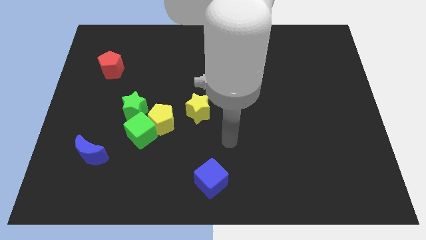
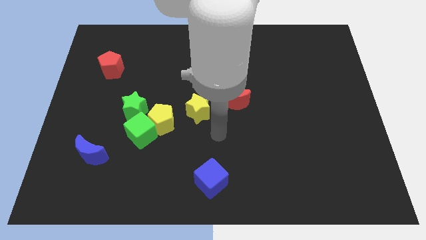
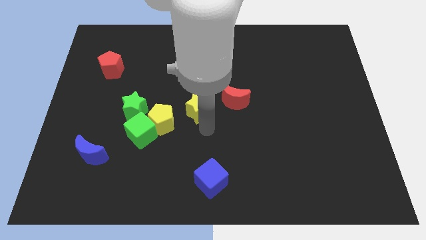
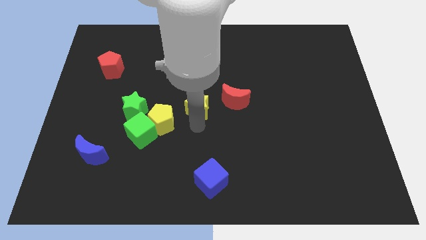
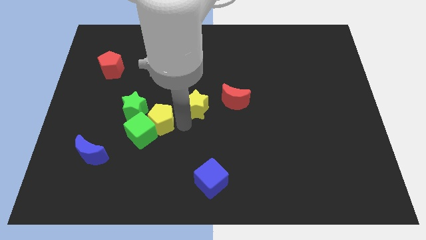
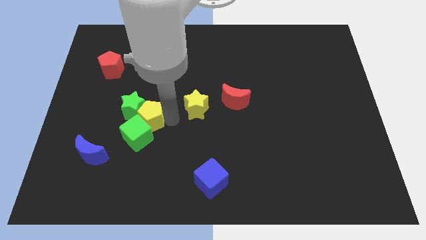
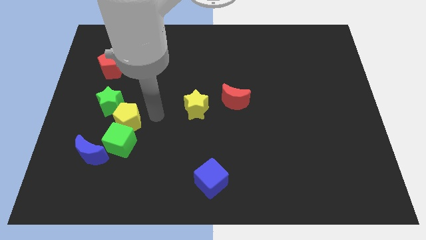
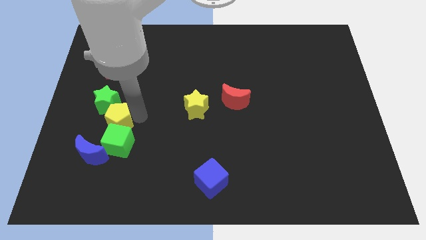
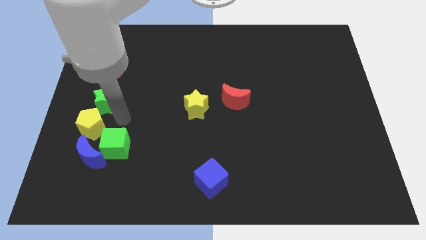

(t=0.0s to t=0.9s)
pull the green cube apart from the yellow pentagon and green star

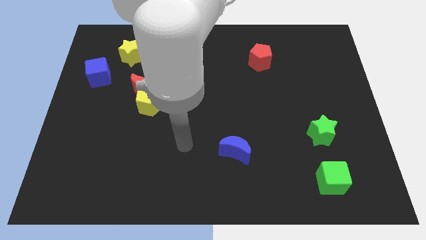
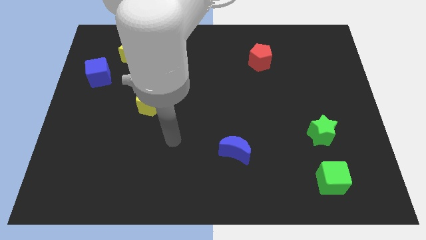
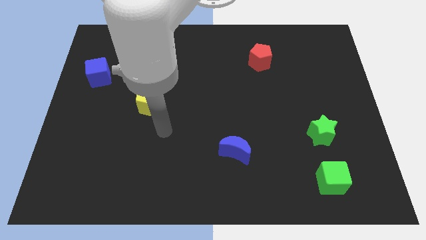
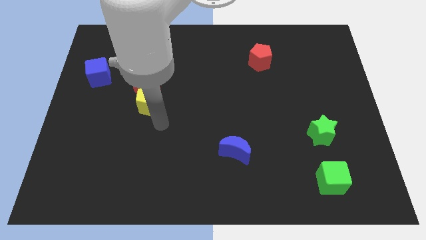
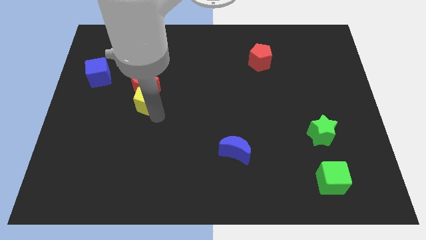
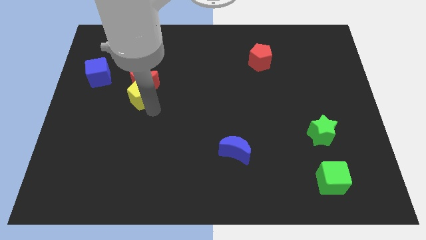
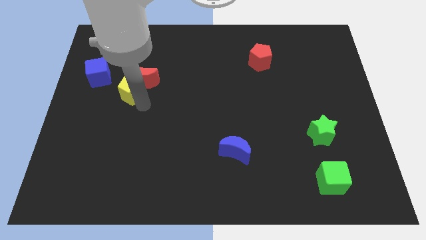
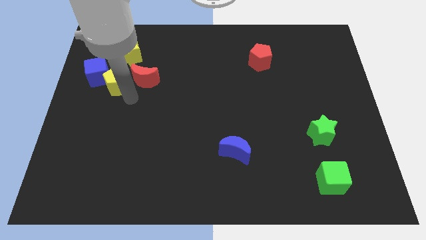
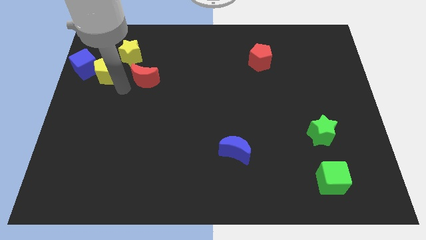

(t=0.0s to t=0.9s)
pull the red moon apart from the yellow pentagon

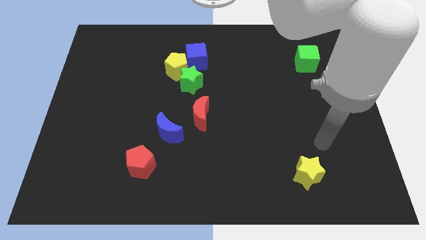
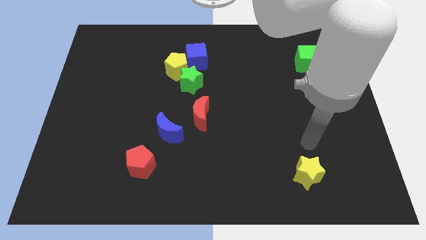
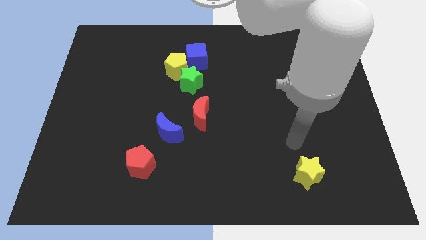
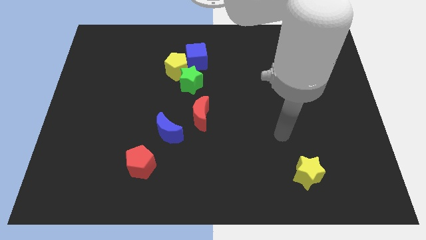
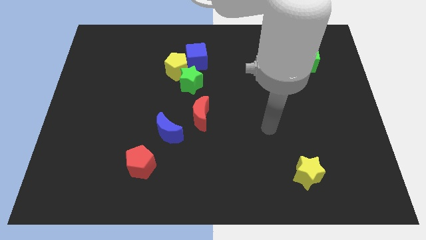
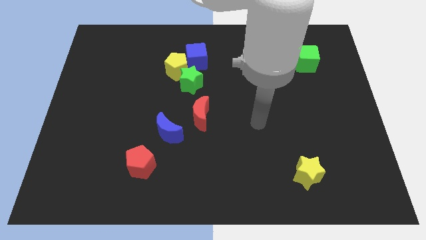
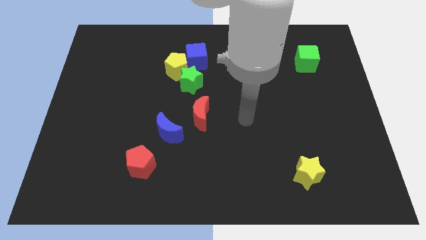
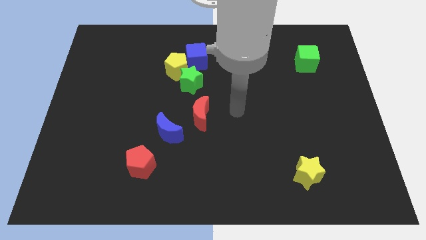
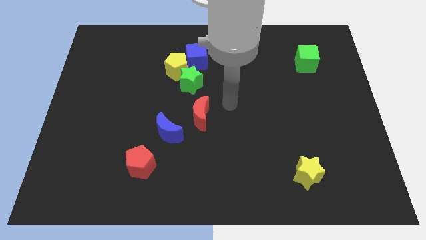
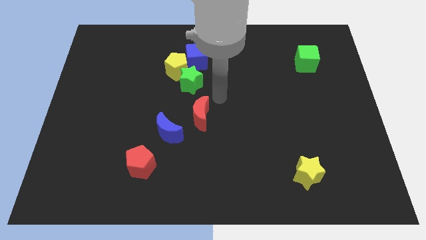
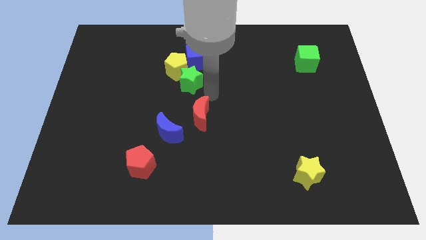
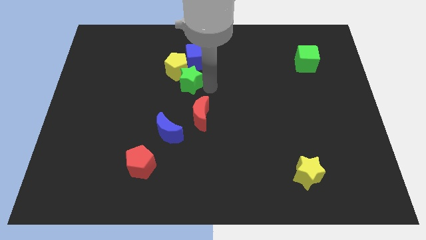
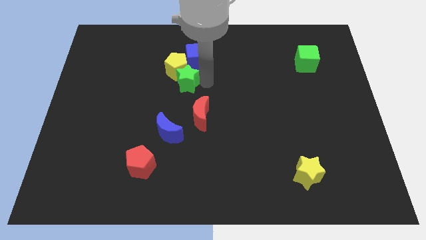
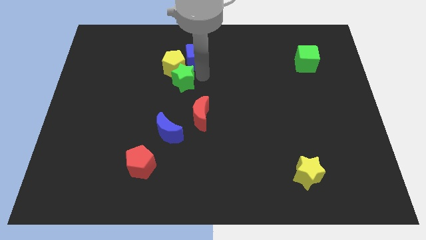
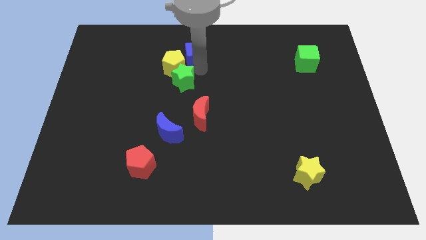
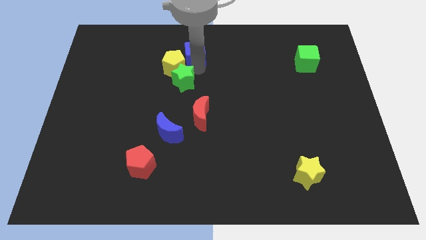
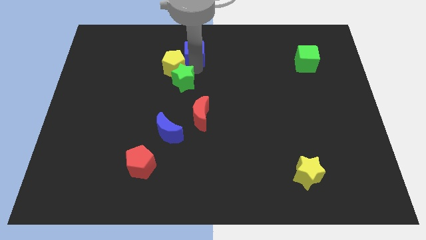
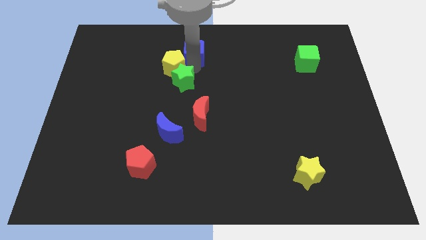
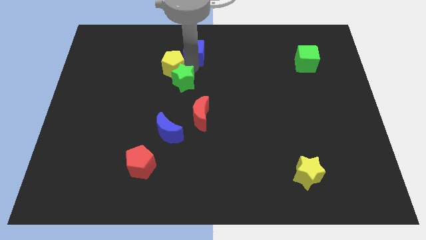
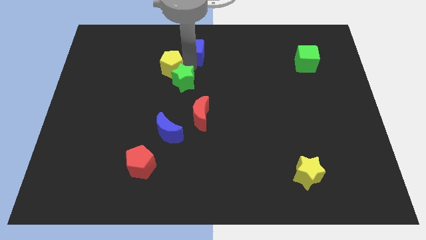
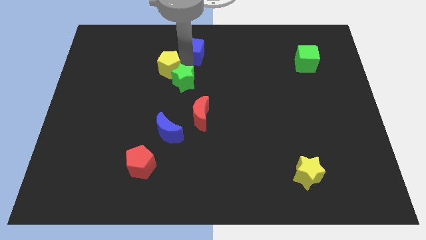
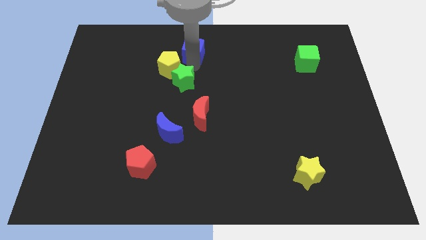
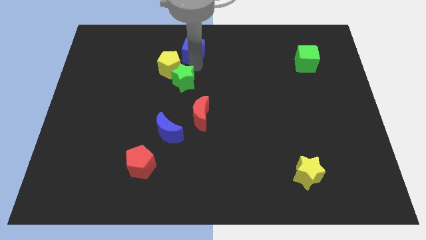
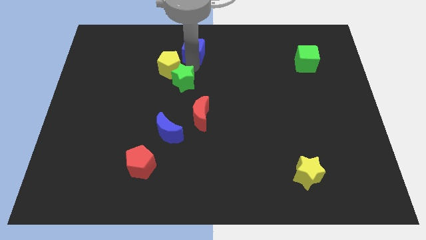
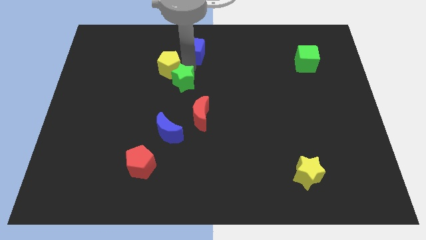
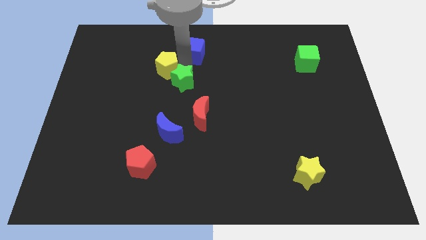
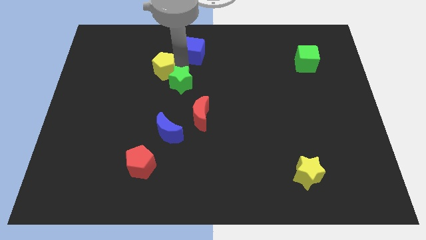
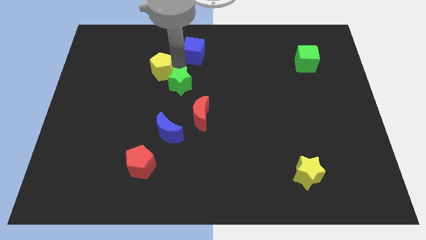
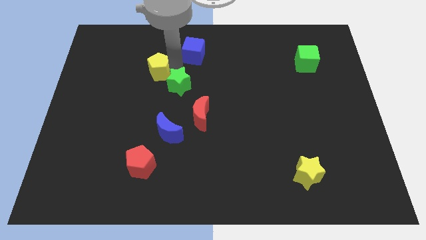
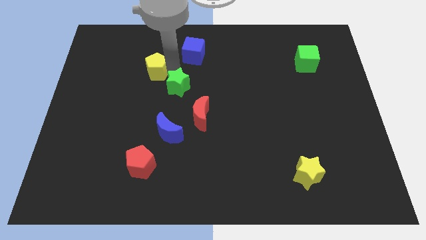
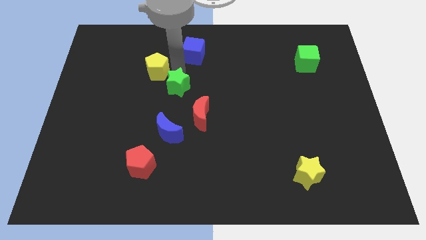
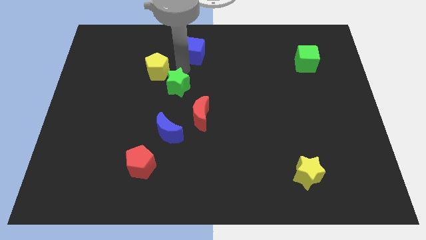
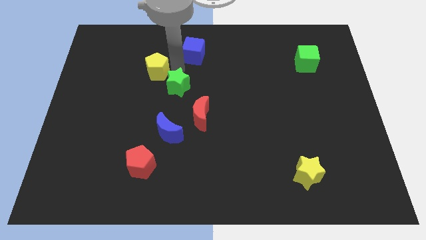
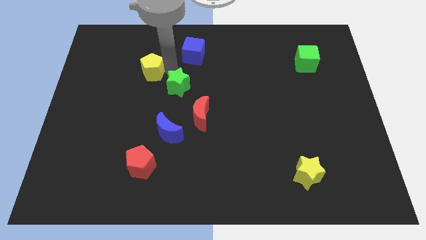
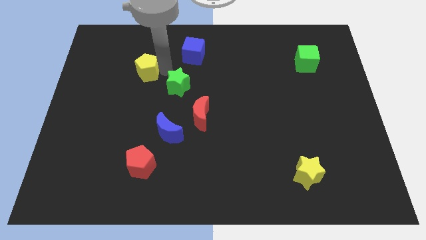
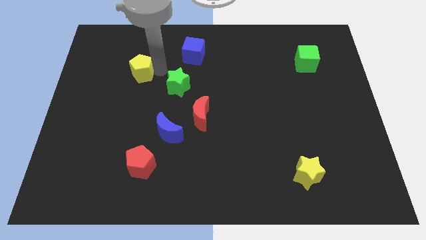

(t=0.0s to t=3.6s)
pull the yellow pentagon apart from the green star and blue cube

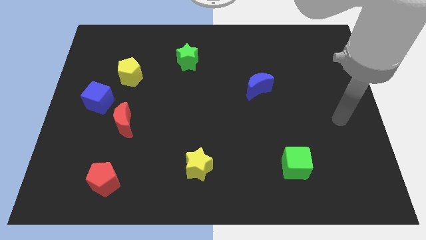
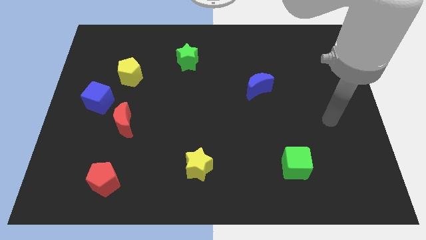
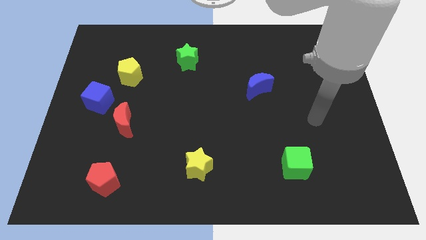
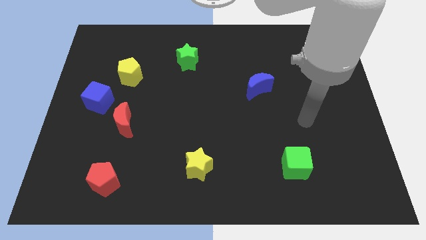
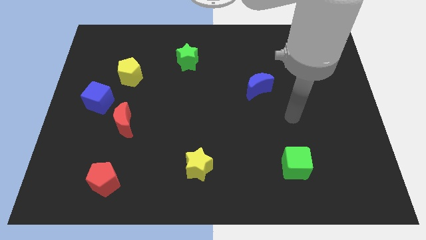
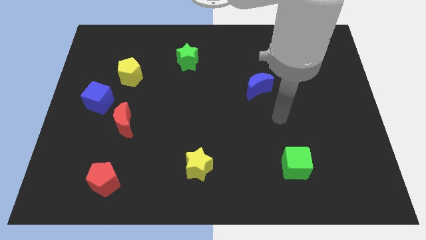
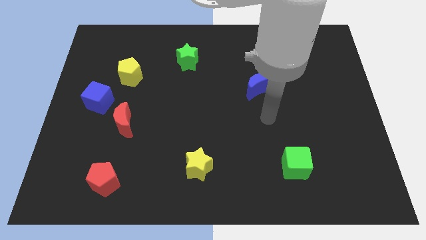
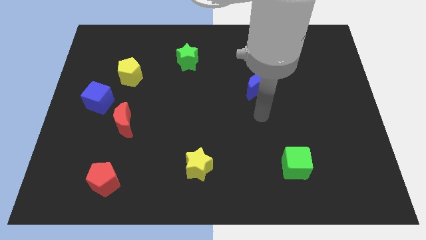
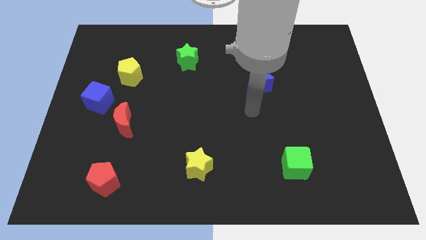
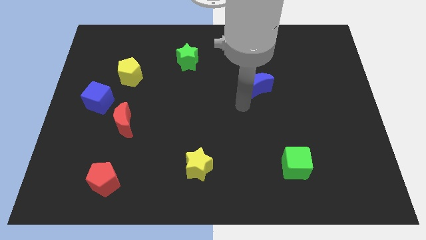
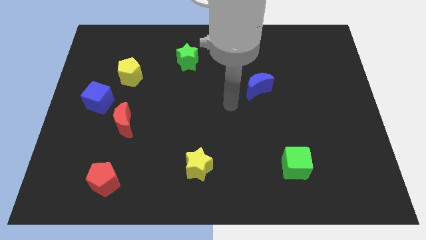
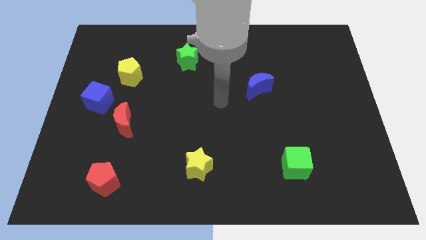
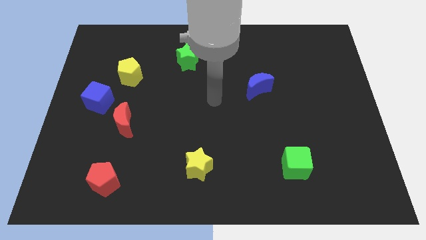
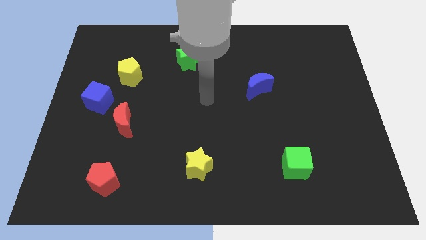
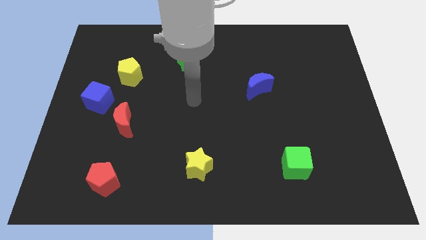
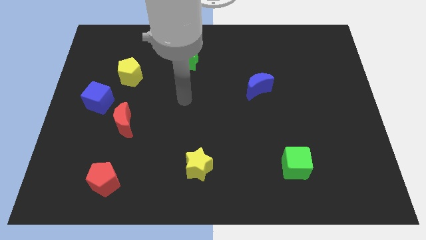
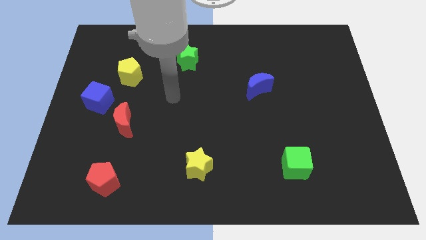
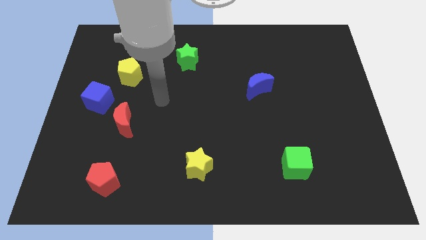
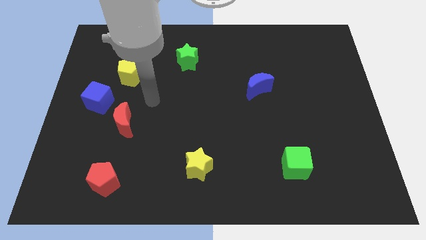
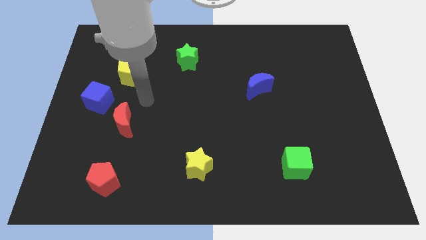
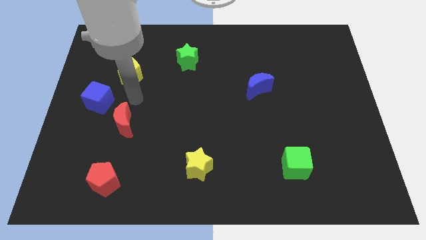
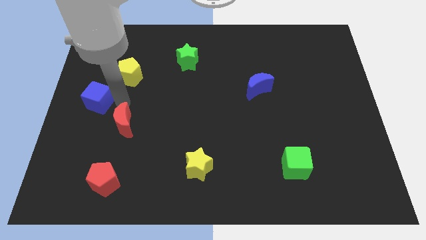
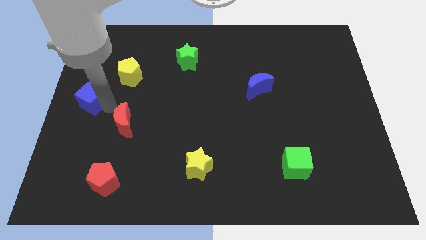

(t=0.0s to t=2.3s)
pull the red moon apart from the blue cube

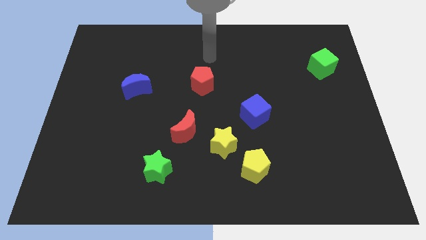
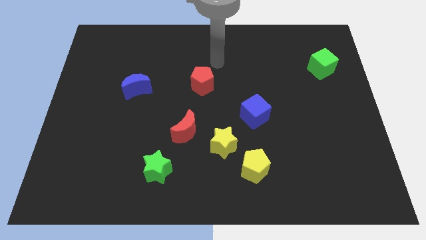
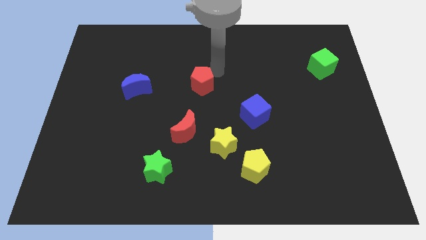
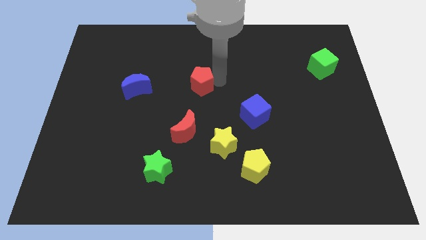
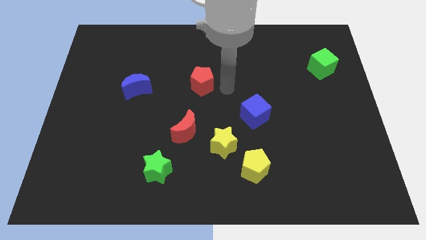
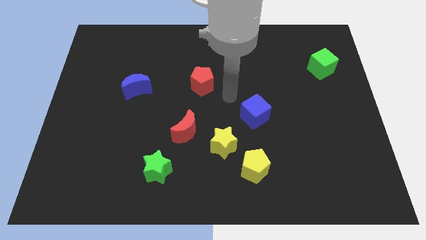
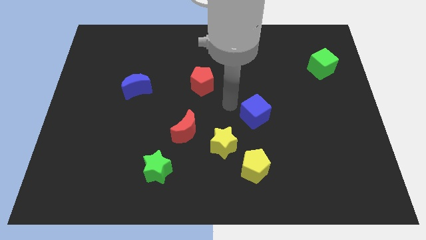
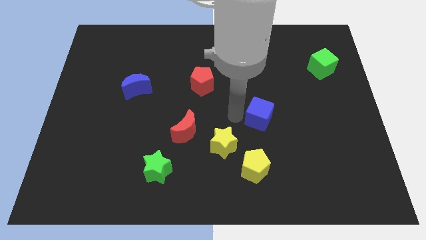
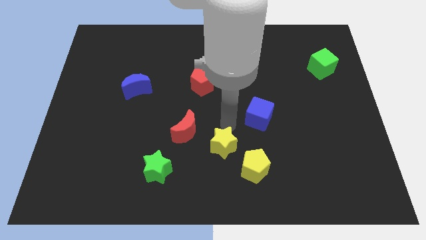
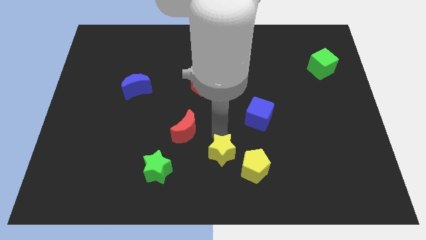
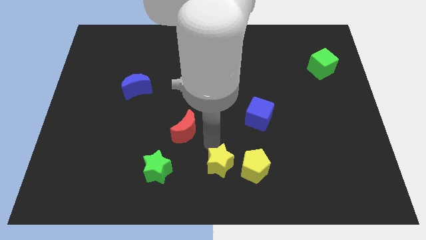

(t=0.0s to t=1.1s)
move the red moon away from the yellow star

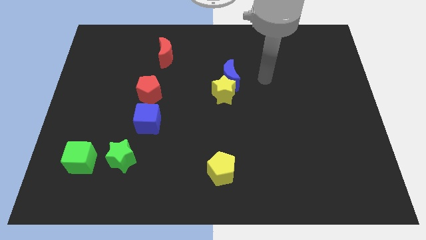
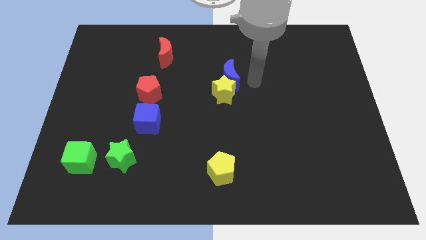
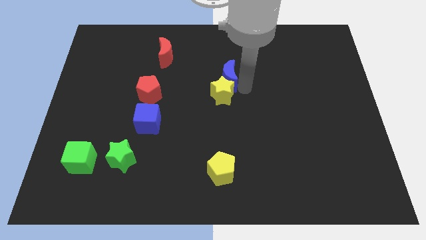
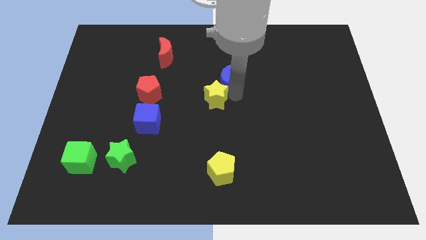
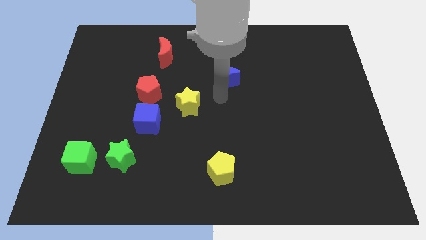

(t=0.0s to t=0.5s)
move the blue moon away from the yellow star
